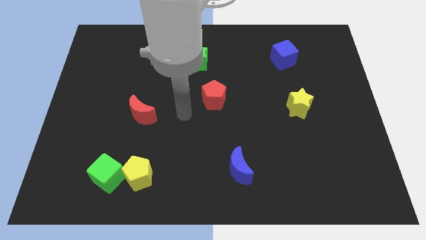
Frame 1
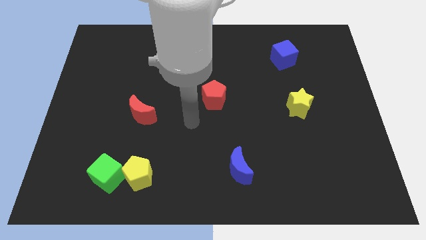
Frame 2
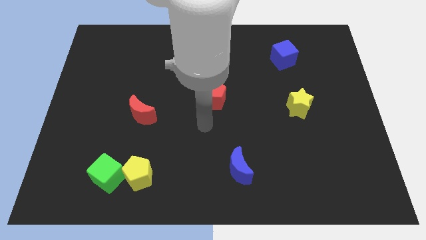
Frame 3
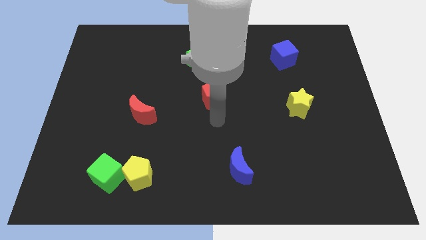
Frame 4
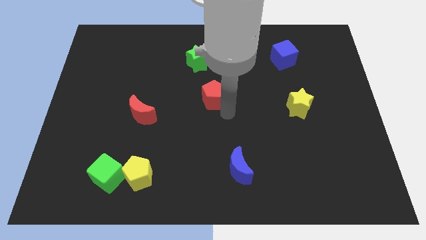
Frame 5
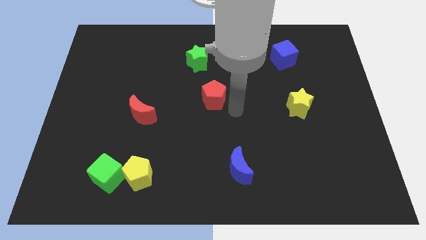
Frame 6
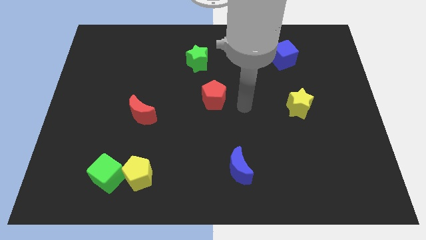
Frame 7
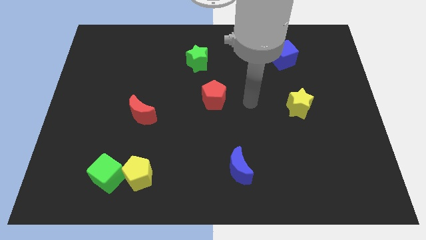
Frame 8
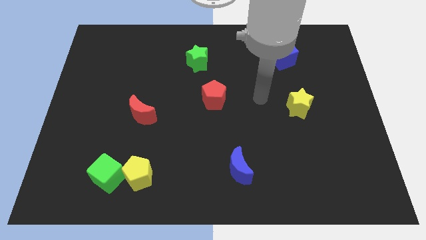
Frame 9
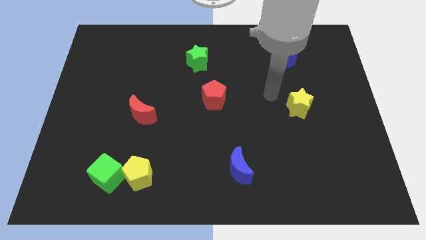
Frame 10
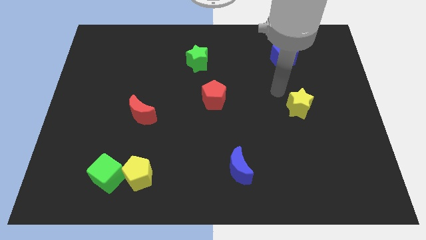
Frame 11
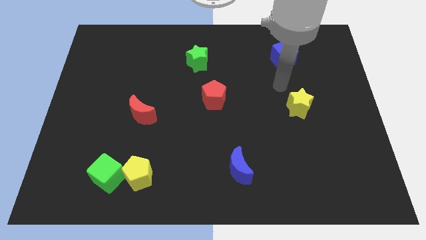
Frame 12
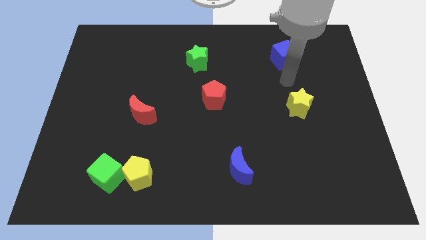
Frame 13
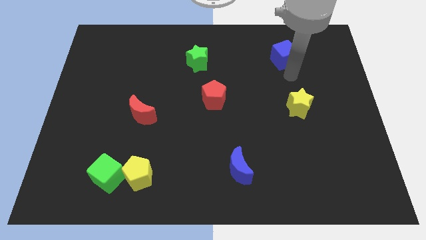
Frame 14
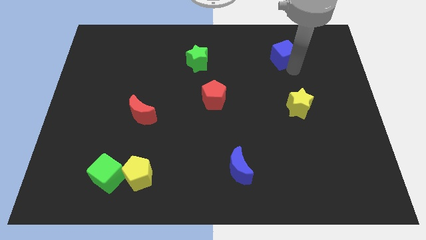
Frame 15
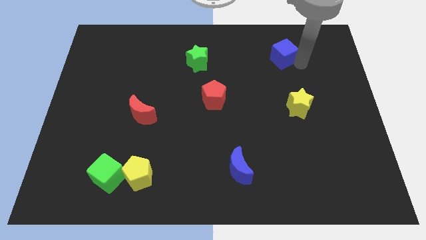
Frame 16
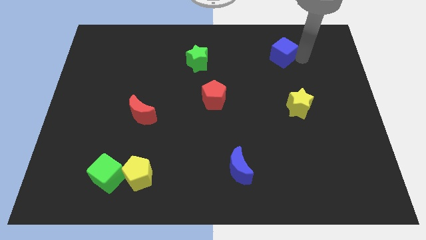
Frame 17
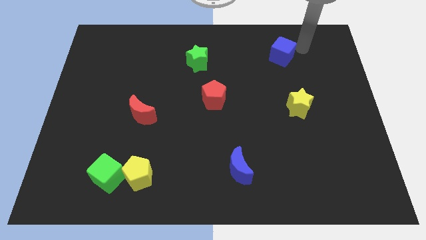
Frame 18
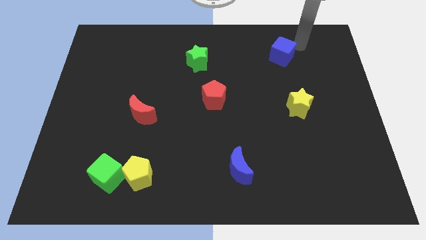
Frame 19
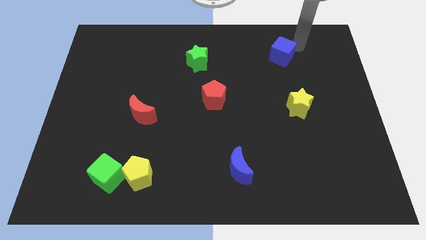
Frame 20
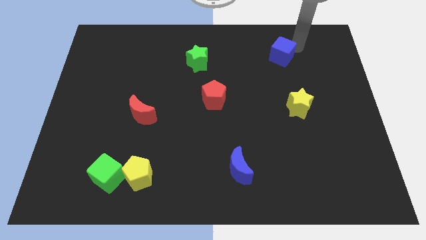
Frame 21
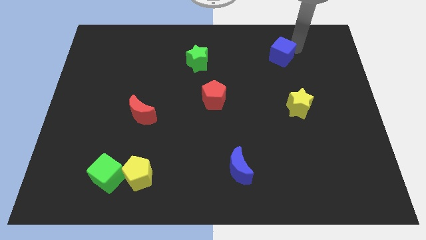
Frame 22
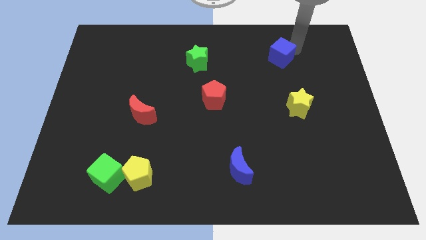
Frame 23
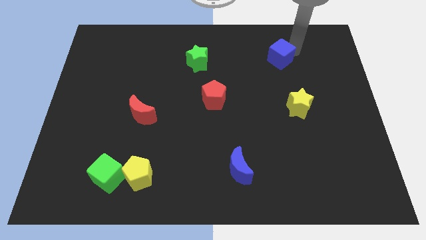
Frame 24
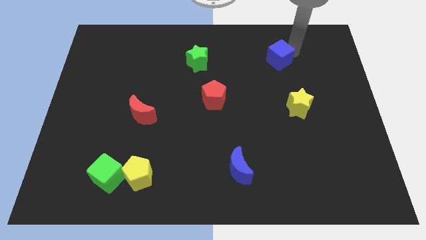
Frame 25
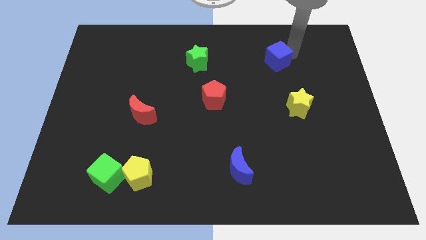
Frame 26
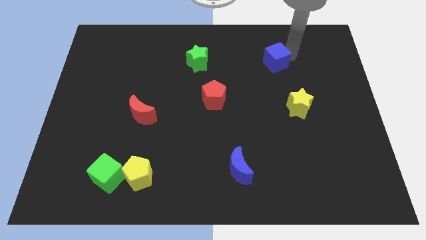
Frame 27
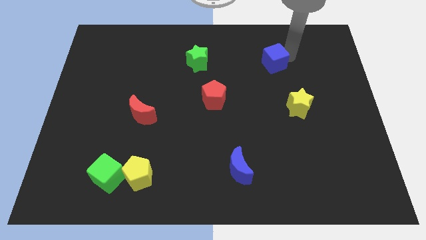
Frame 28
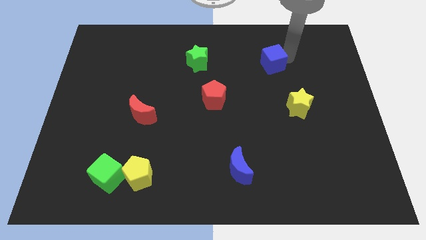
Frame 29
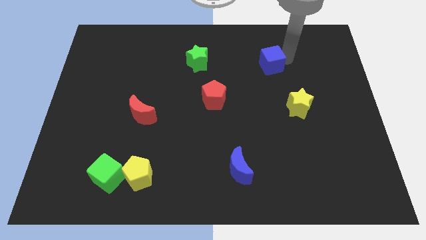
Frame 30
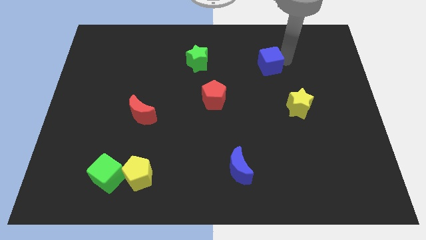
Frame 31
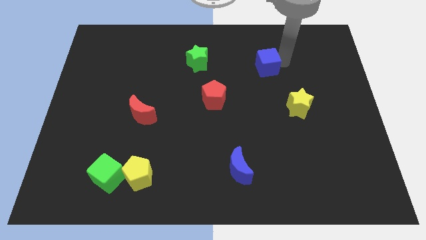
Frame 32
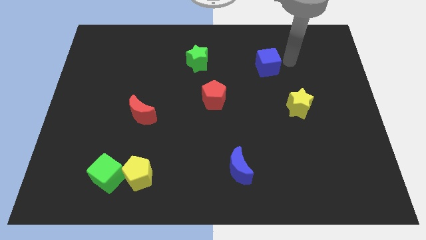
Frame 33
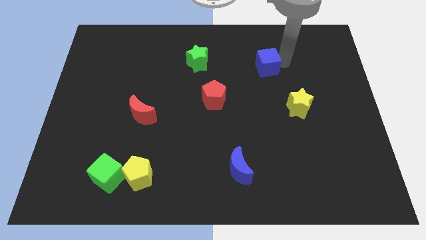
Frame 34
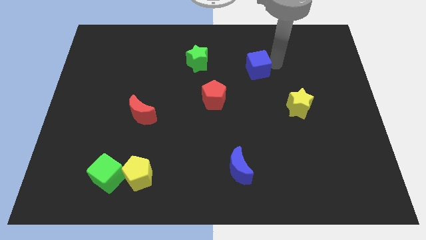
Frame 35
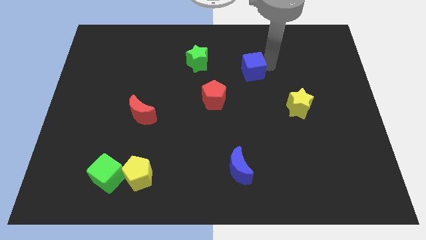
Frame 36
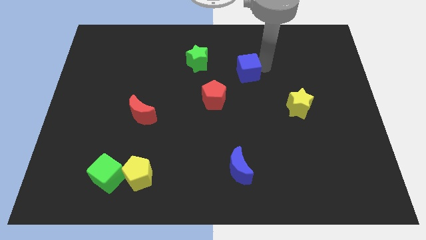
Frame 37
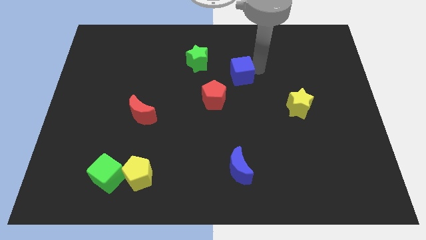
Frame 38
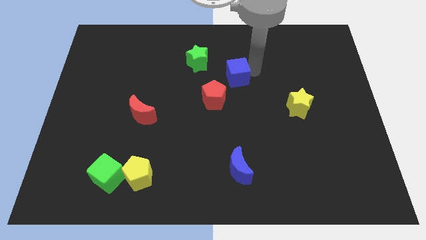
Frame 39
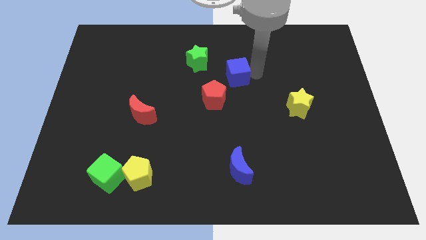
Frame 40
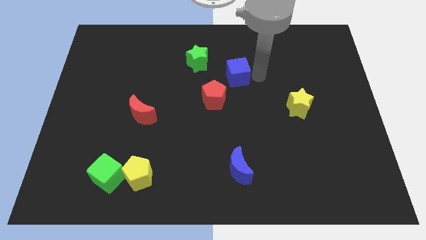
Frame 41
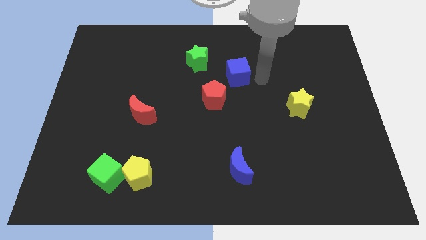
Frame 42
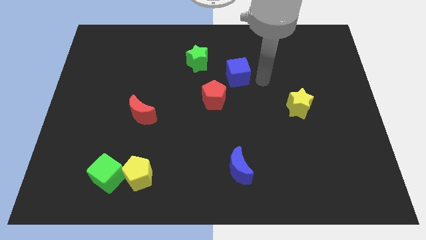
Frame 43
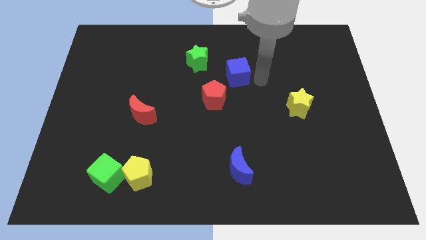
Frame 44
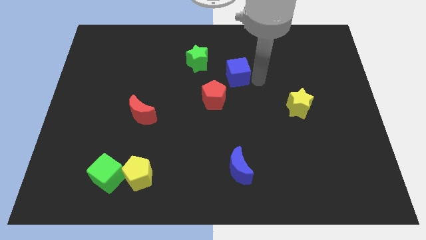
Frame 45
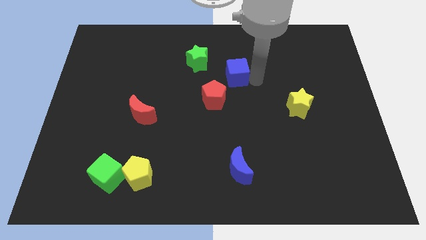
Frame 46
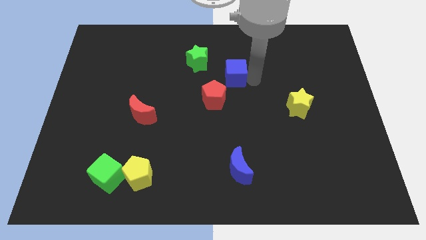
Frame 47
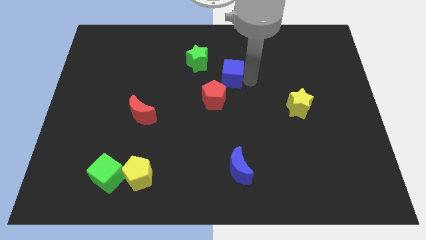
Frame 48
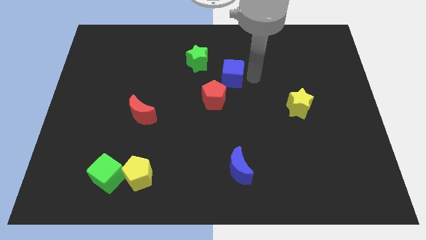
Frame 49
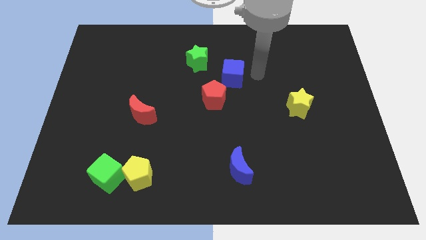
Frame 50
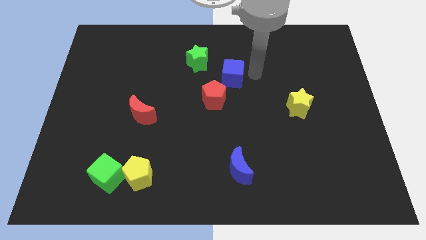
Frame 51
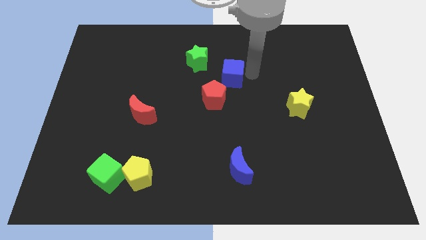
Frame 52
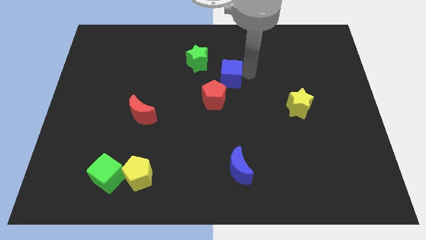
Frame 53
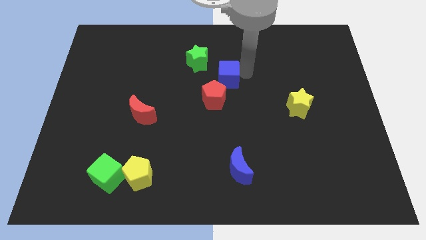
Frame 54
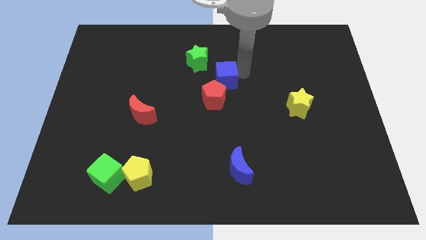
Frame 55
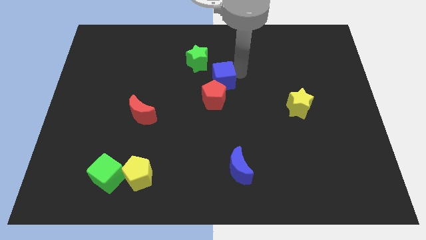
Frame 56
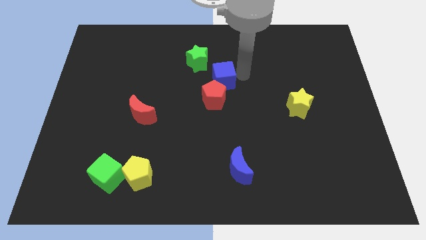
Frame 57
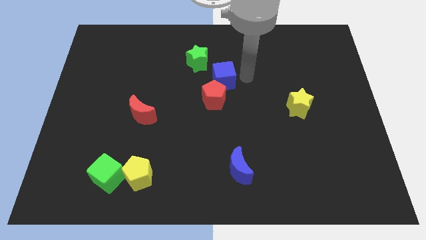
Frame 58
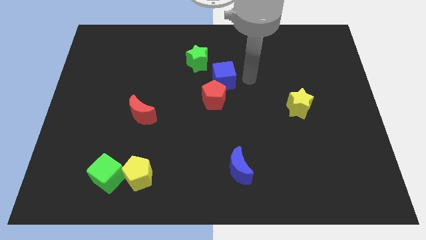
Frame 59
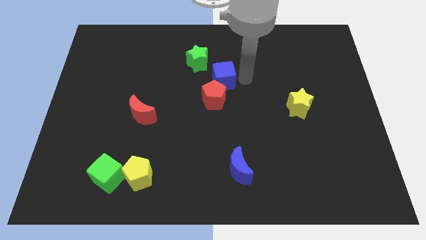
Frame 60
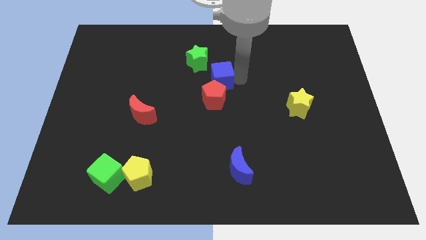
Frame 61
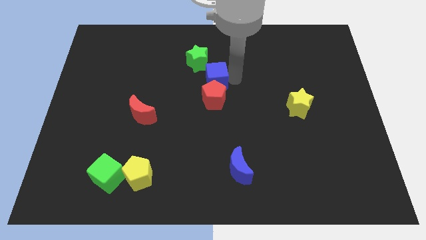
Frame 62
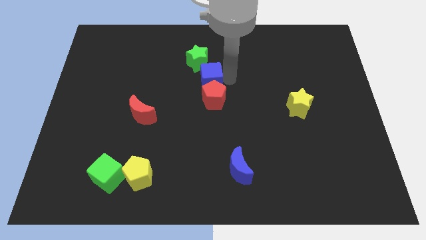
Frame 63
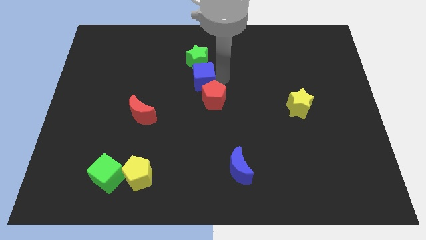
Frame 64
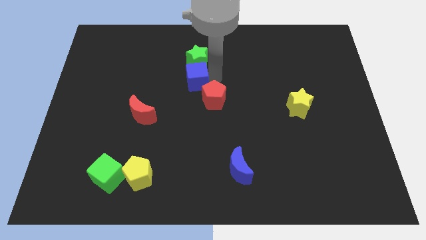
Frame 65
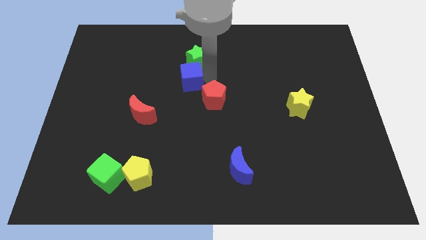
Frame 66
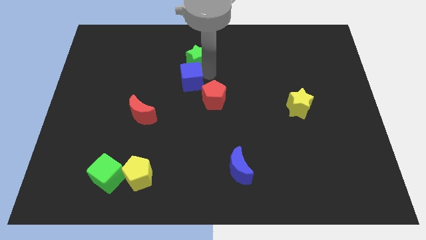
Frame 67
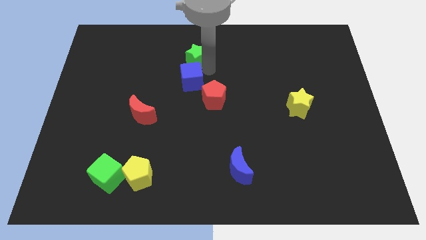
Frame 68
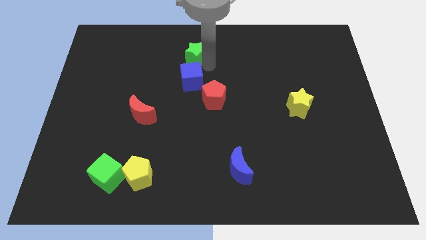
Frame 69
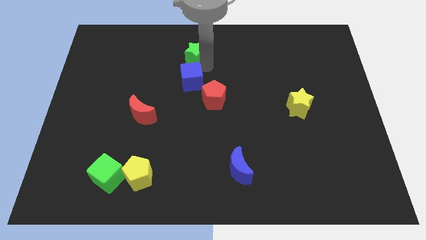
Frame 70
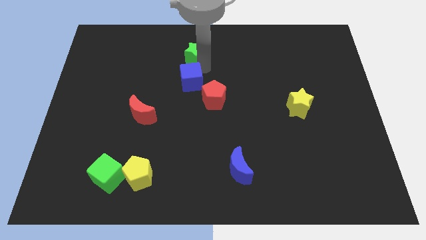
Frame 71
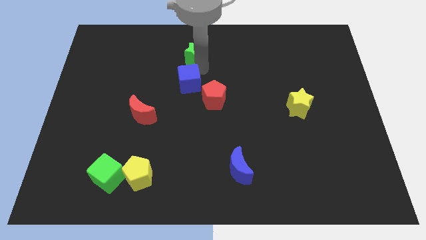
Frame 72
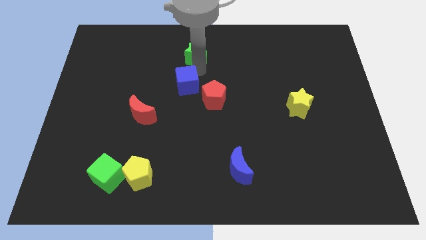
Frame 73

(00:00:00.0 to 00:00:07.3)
push the blue cube just left of the red pentagon

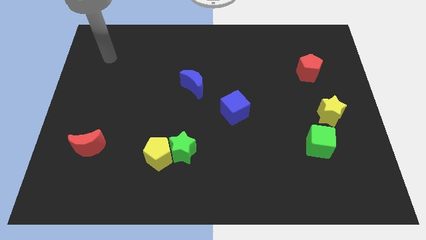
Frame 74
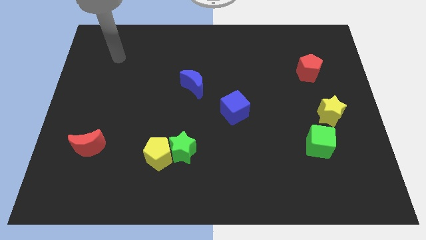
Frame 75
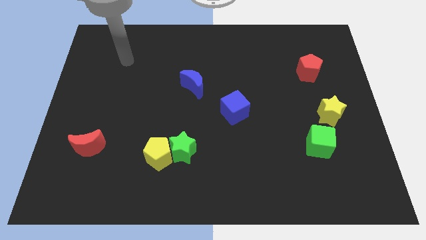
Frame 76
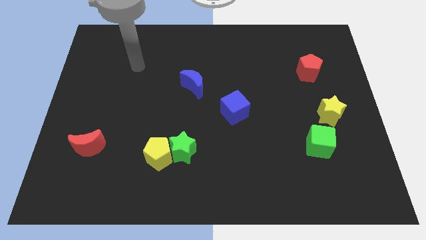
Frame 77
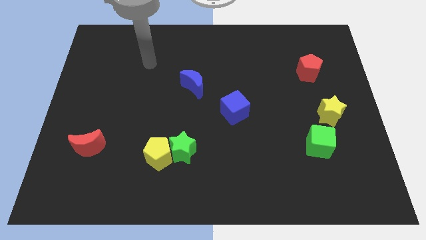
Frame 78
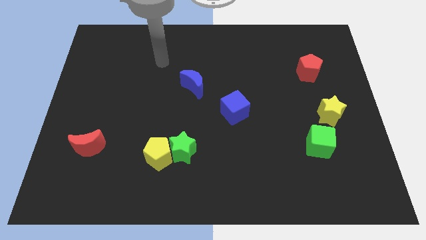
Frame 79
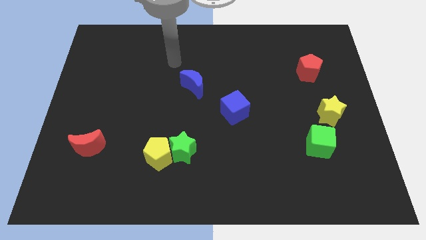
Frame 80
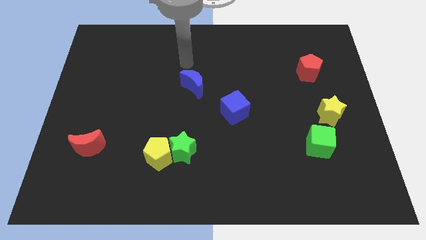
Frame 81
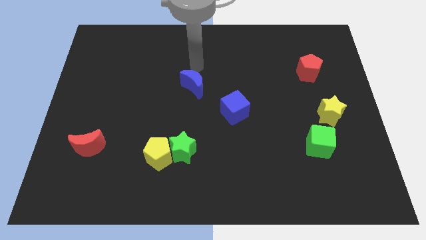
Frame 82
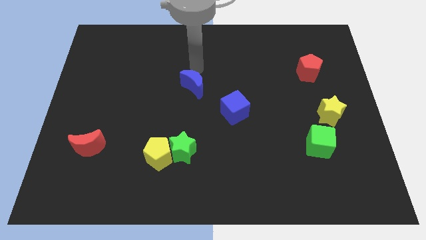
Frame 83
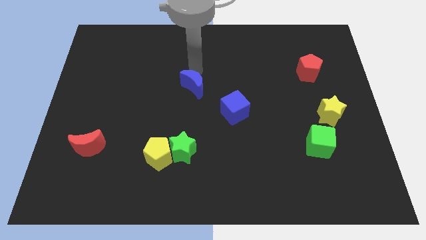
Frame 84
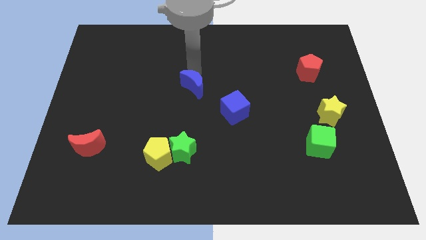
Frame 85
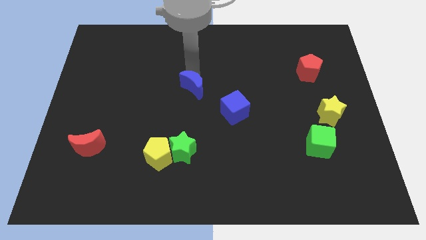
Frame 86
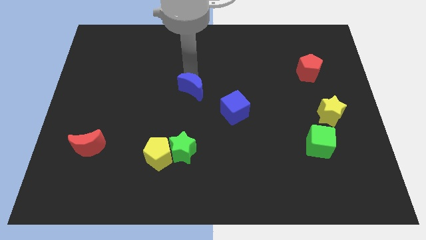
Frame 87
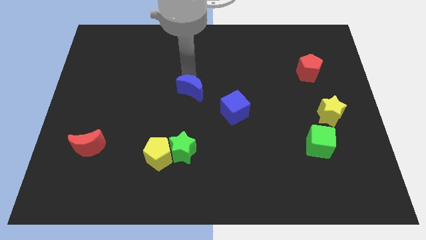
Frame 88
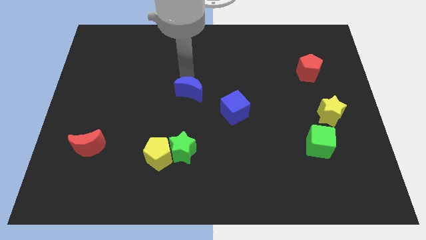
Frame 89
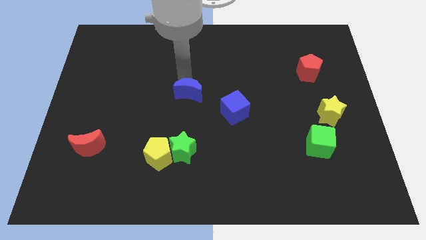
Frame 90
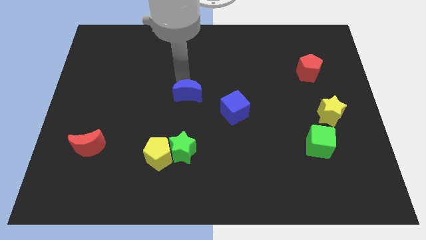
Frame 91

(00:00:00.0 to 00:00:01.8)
slide the blue moon just left of the blue cube
